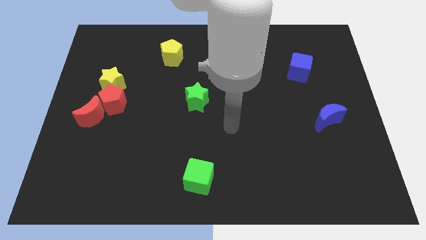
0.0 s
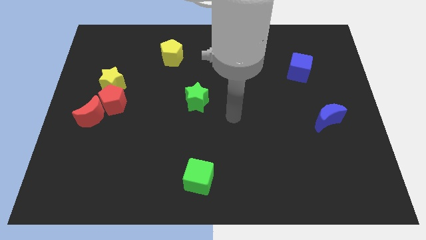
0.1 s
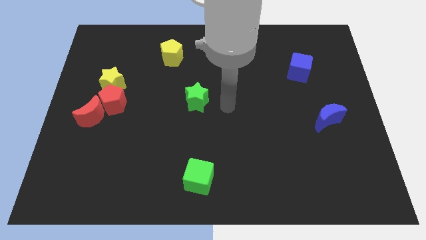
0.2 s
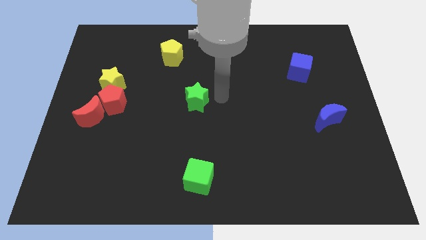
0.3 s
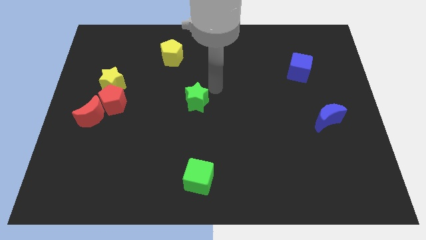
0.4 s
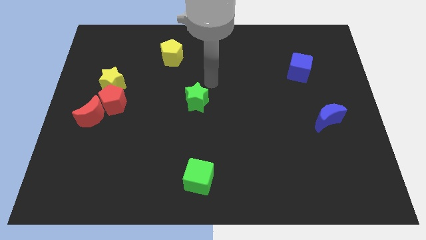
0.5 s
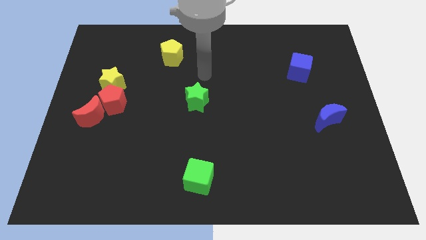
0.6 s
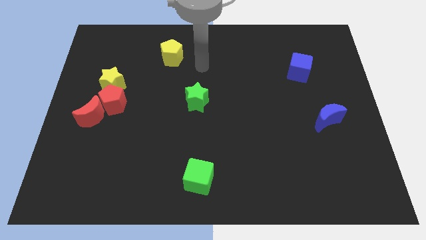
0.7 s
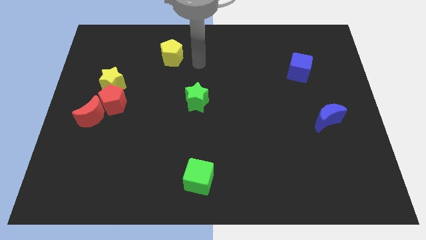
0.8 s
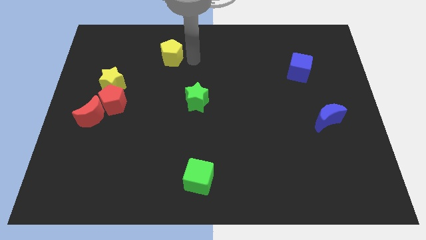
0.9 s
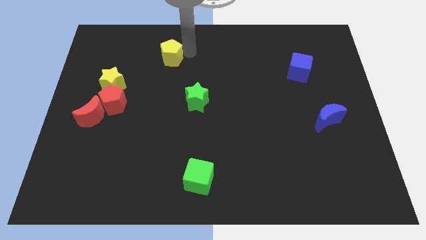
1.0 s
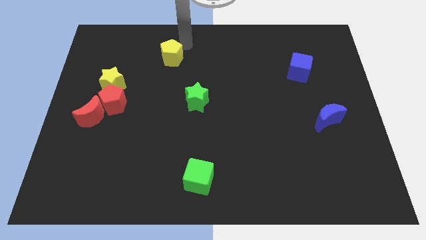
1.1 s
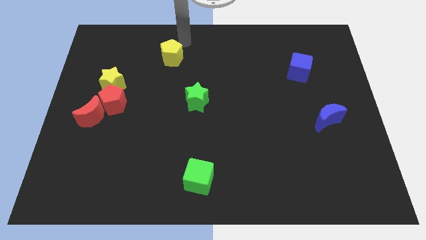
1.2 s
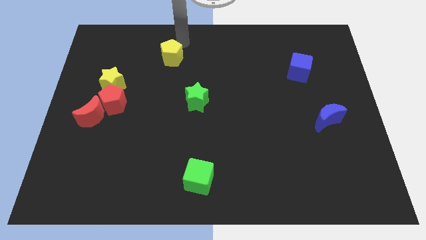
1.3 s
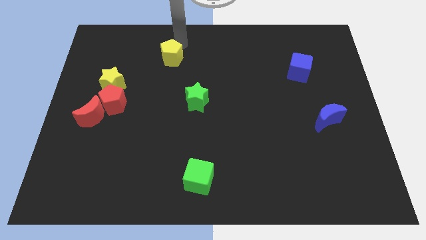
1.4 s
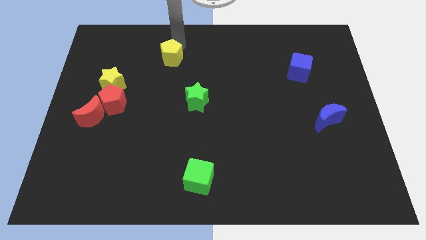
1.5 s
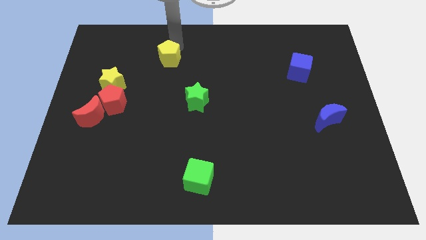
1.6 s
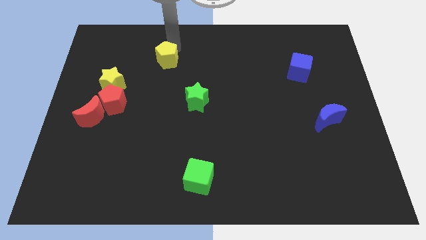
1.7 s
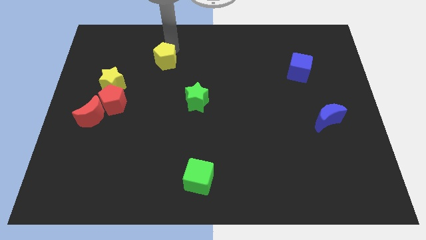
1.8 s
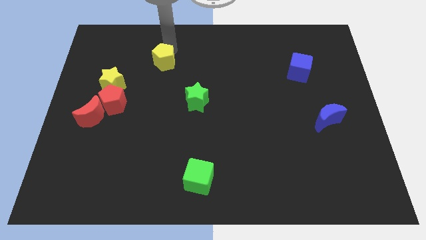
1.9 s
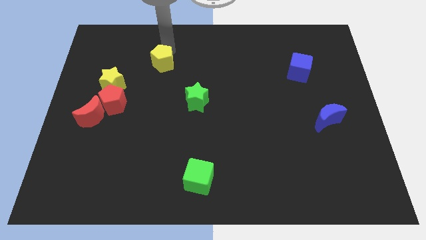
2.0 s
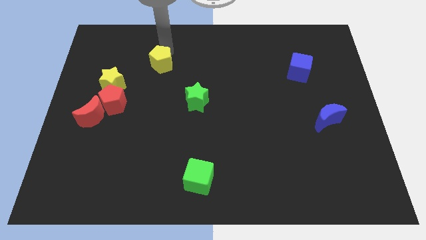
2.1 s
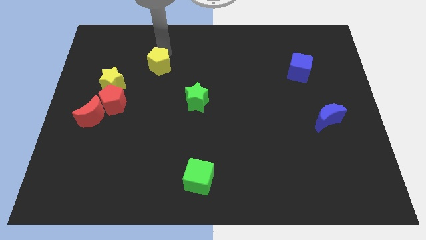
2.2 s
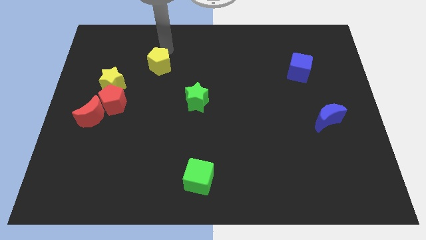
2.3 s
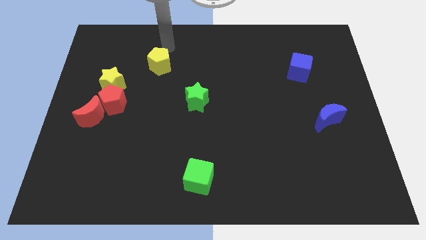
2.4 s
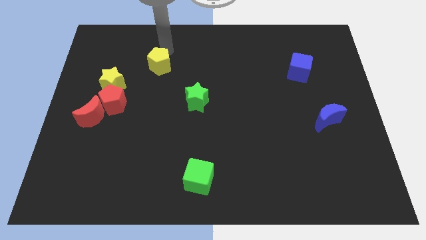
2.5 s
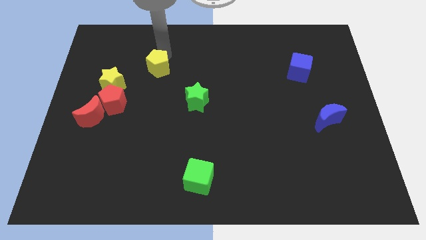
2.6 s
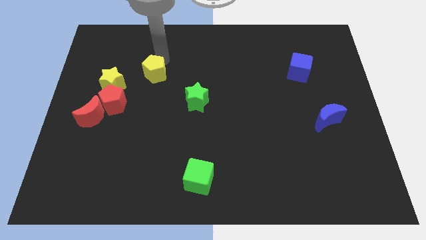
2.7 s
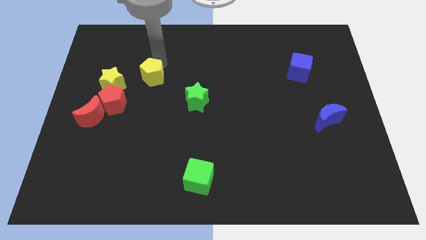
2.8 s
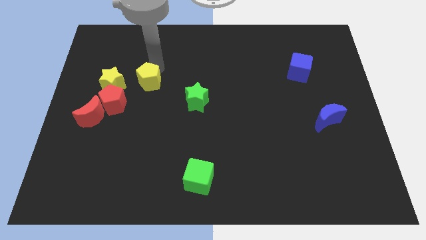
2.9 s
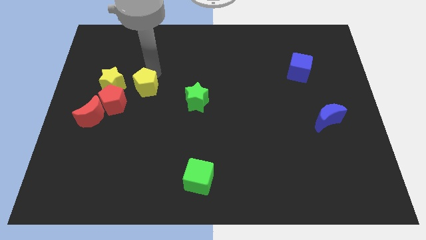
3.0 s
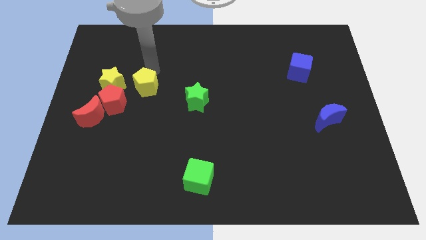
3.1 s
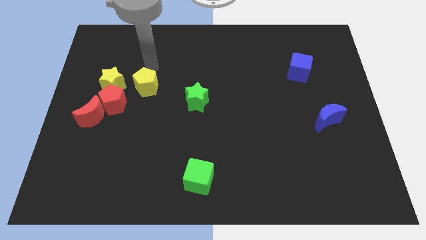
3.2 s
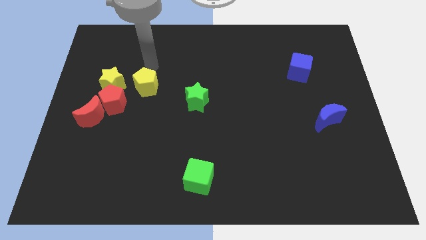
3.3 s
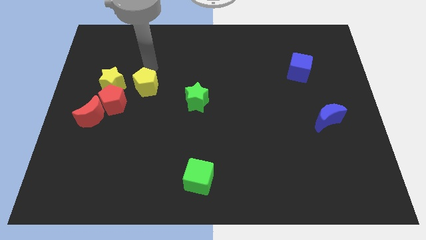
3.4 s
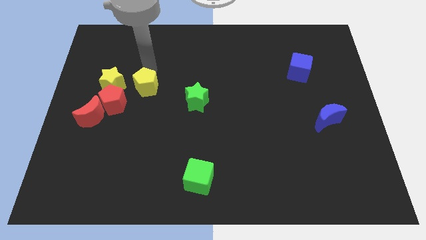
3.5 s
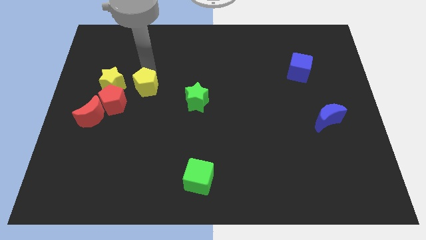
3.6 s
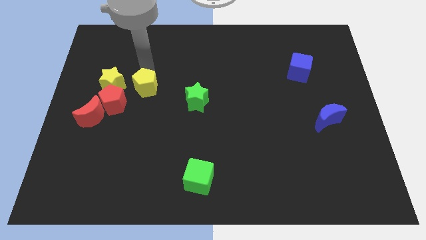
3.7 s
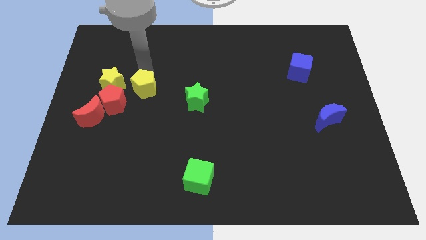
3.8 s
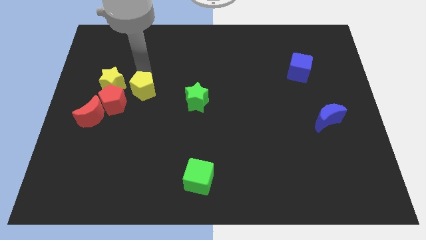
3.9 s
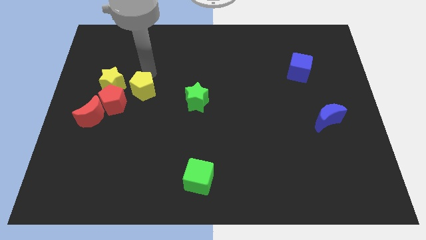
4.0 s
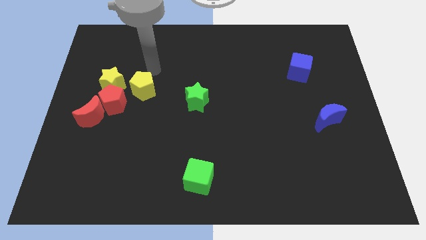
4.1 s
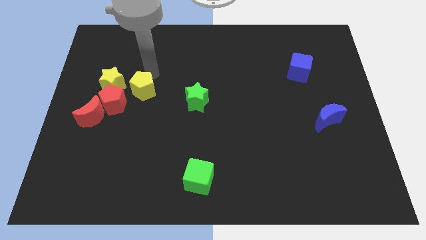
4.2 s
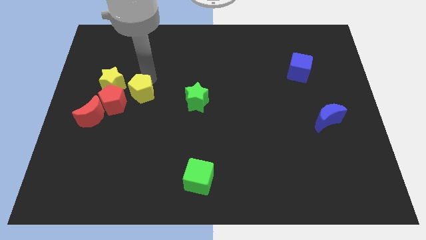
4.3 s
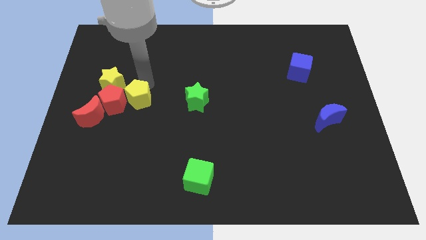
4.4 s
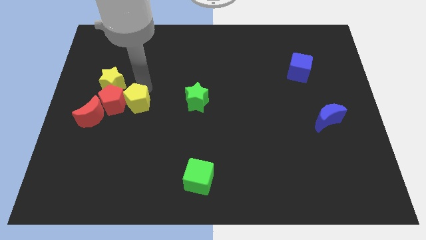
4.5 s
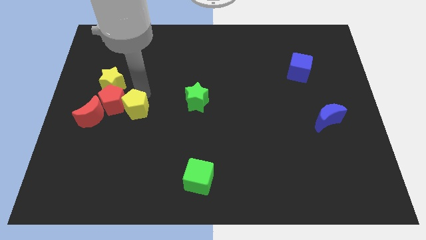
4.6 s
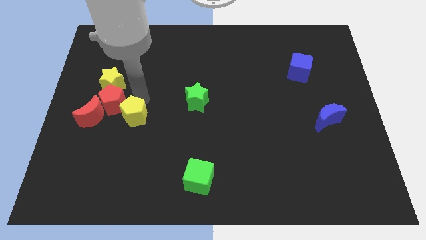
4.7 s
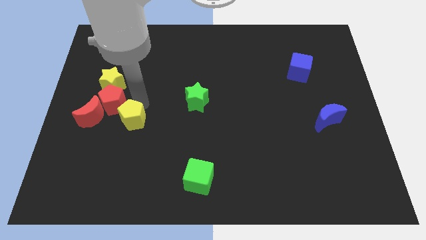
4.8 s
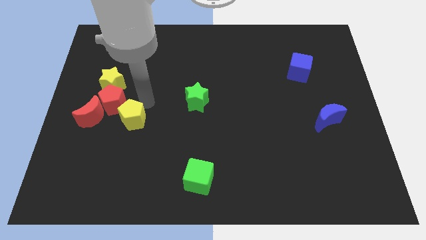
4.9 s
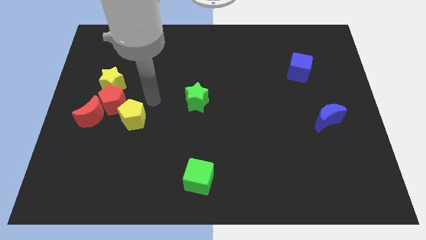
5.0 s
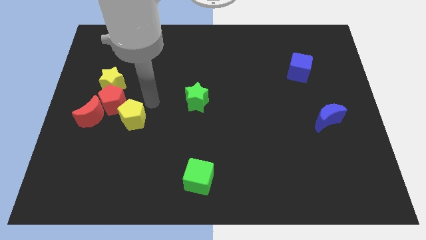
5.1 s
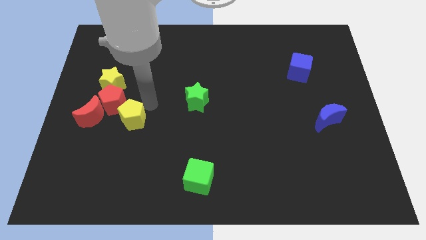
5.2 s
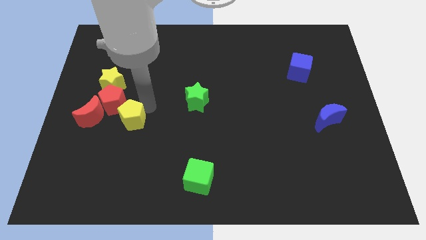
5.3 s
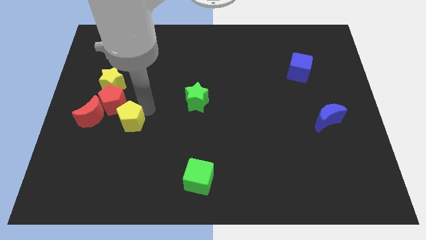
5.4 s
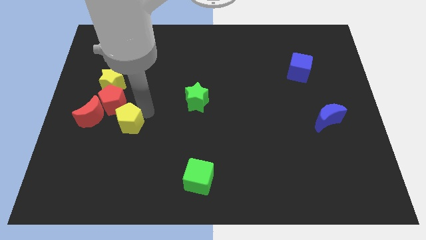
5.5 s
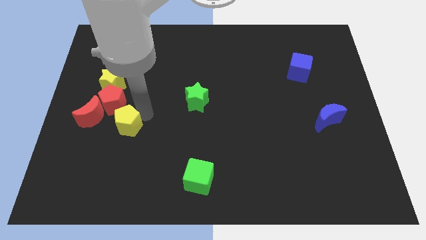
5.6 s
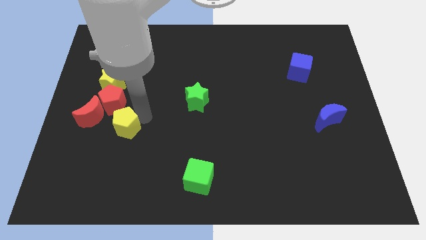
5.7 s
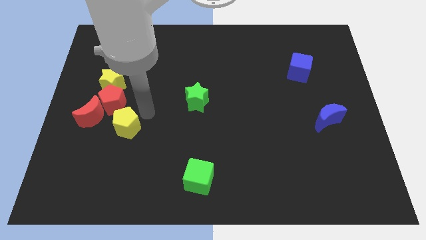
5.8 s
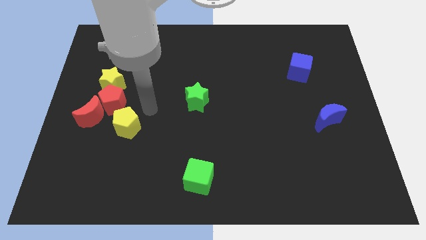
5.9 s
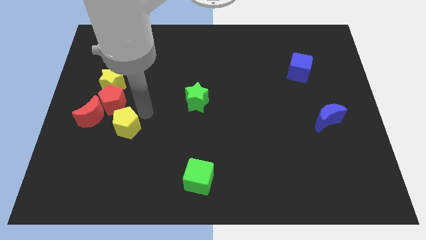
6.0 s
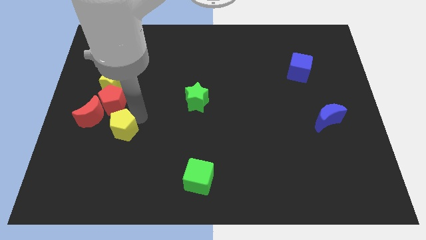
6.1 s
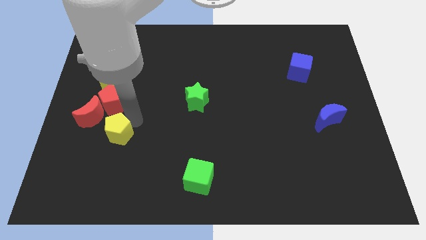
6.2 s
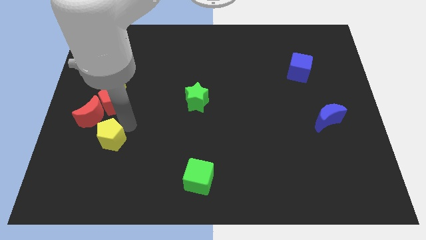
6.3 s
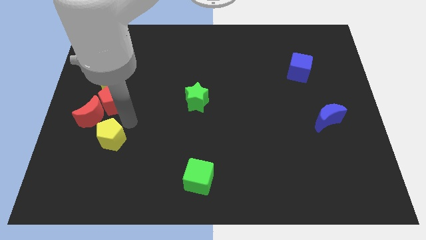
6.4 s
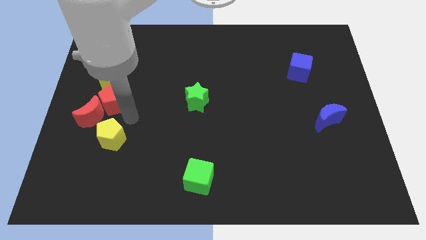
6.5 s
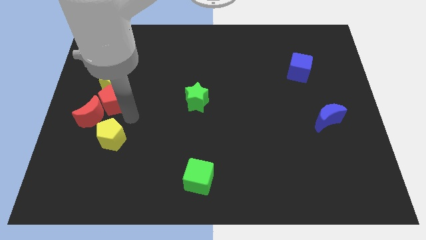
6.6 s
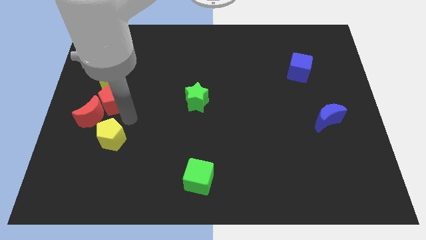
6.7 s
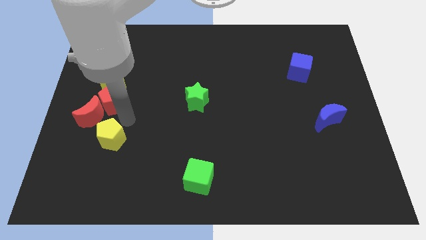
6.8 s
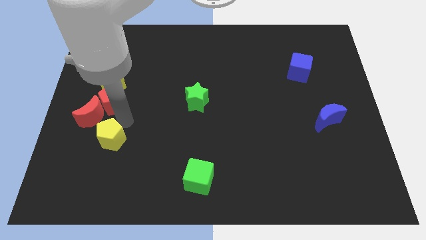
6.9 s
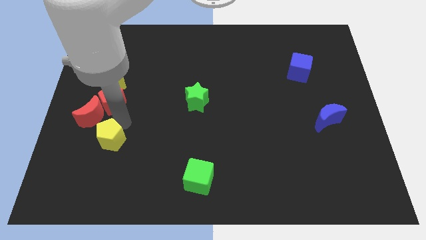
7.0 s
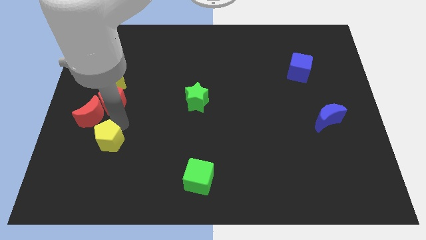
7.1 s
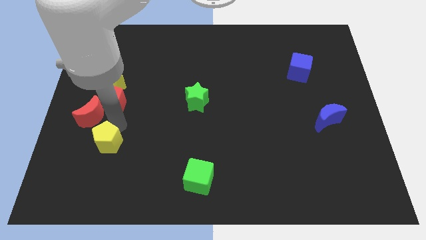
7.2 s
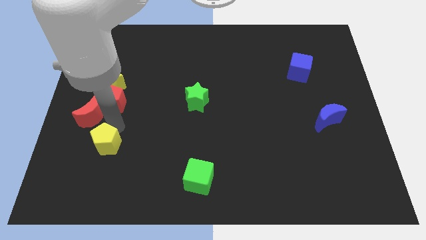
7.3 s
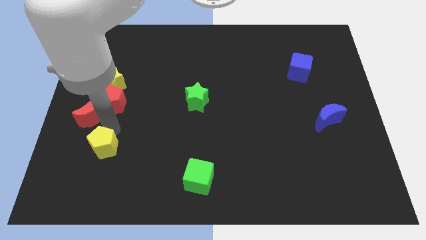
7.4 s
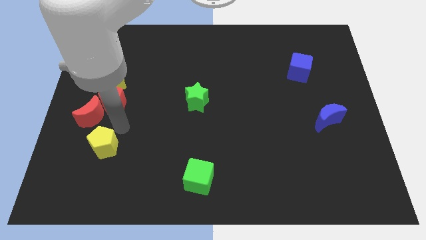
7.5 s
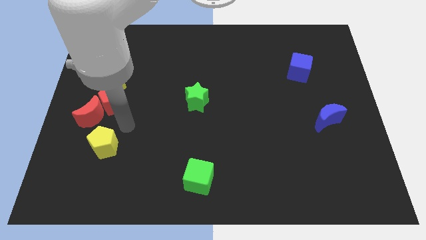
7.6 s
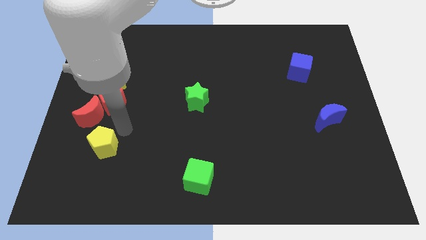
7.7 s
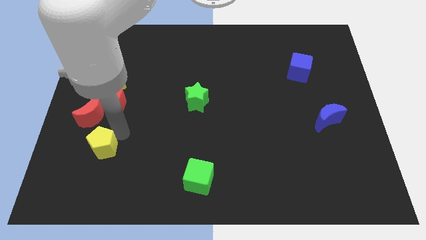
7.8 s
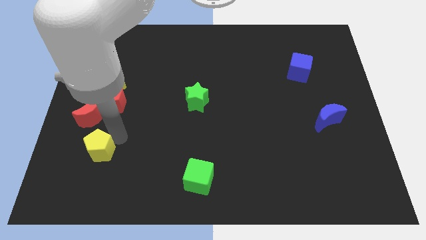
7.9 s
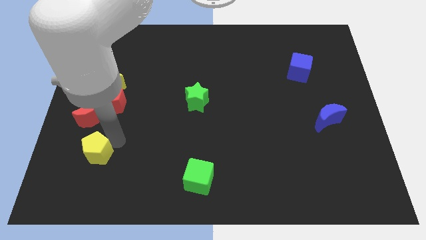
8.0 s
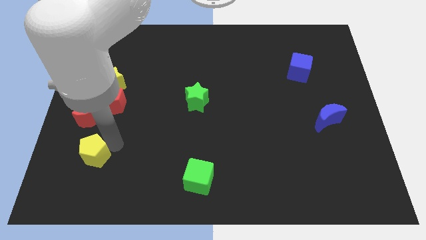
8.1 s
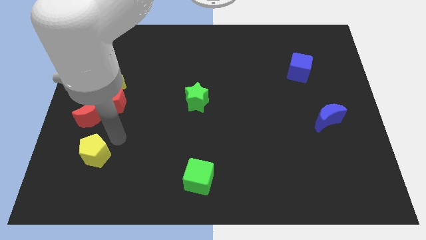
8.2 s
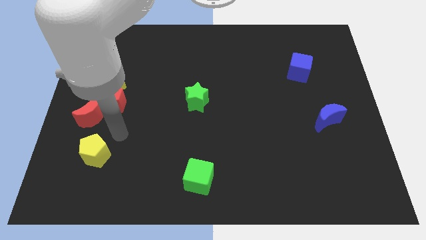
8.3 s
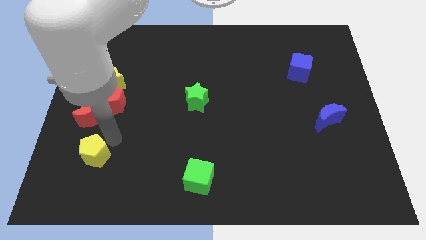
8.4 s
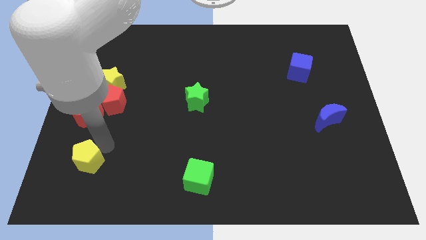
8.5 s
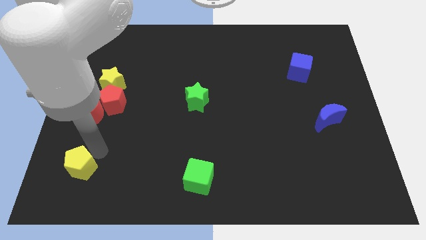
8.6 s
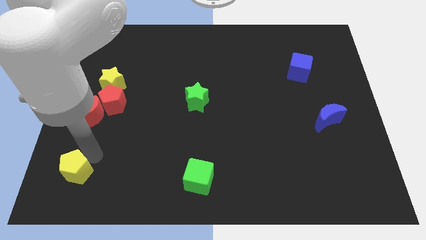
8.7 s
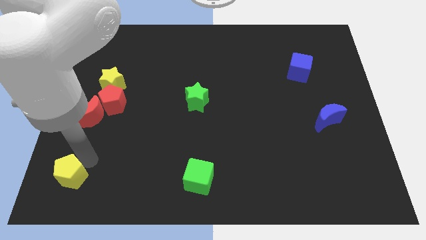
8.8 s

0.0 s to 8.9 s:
move the yellow pentagon to the lower left corner
